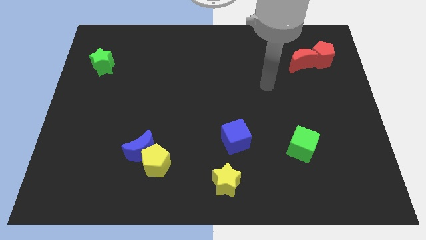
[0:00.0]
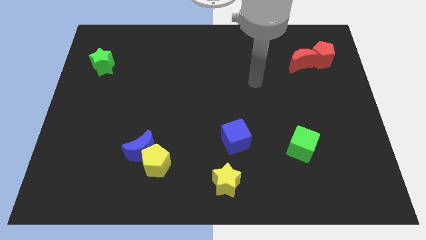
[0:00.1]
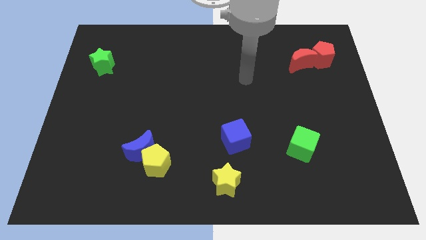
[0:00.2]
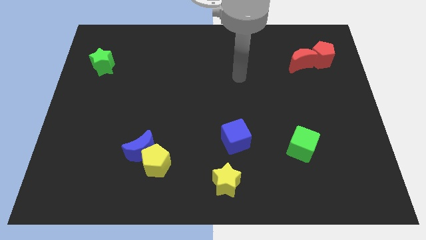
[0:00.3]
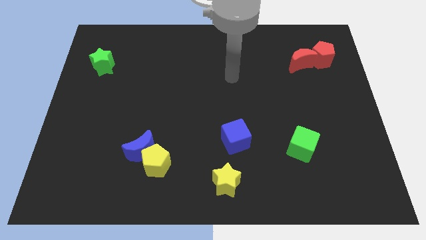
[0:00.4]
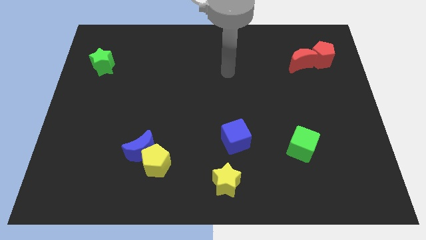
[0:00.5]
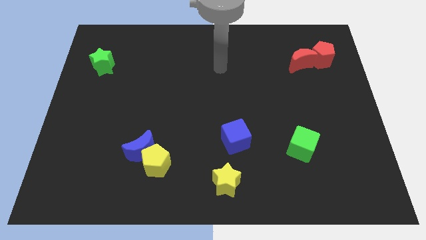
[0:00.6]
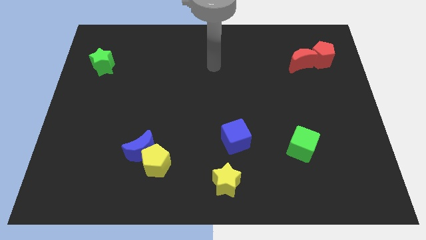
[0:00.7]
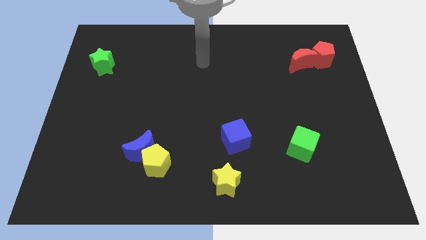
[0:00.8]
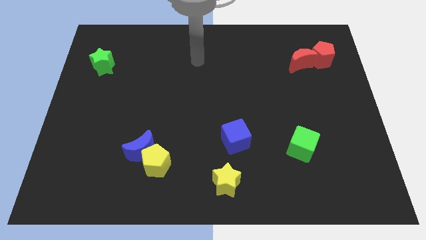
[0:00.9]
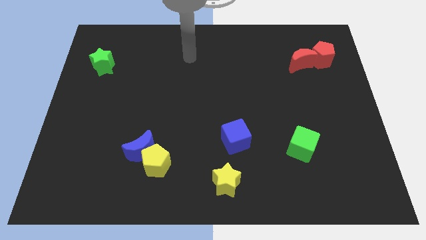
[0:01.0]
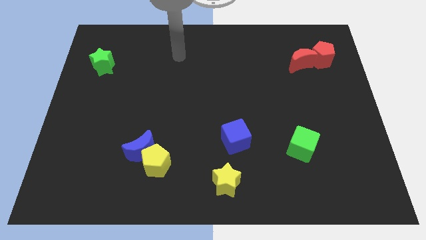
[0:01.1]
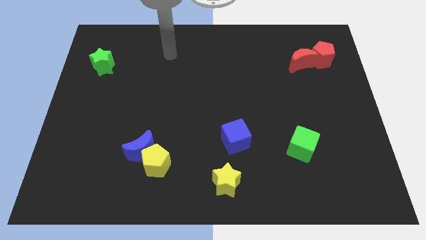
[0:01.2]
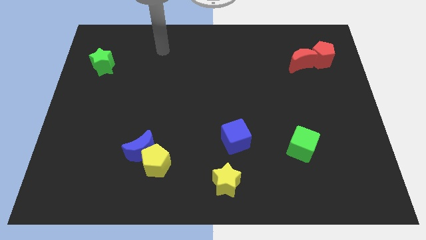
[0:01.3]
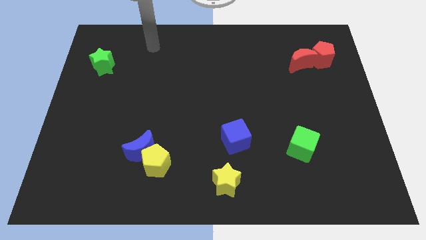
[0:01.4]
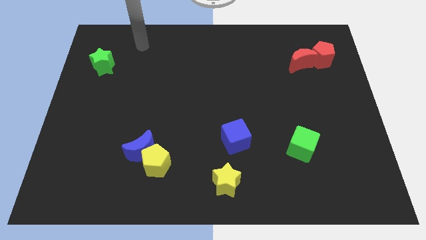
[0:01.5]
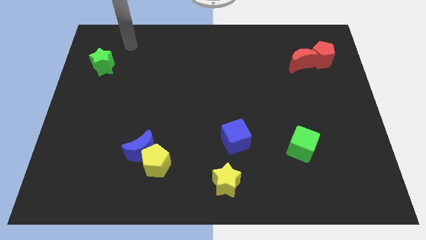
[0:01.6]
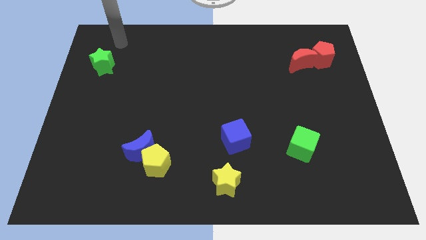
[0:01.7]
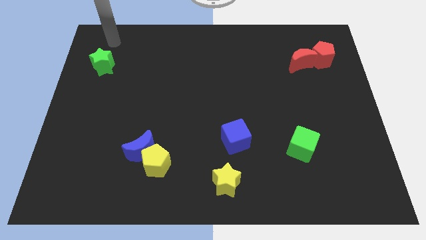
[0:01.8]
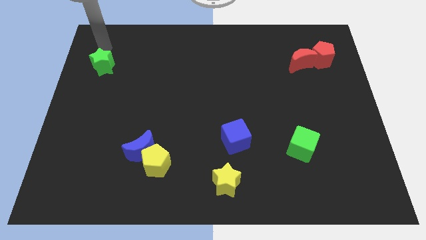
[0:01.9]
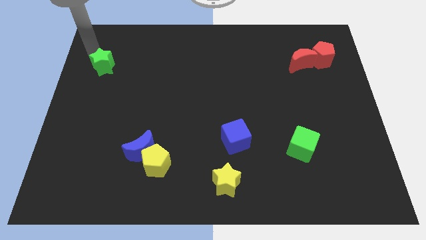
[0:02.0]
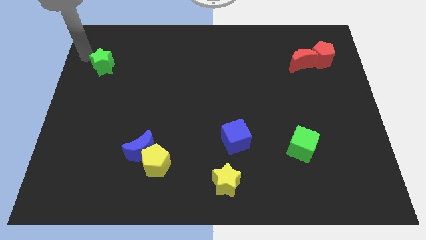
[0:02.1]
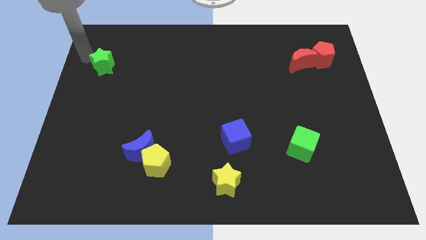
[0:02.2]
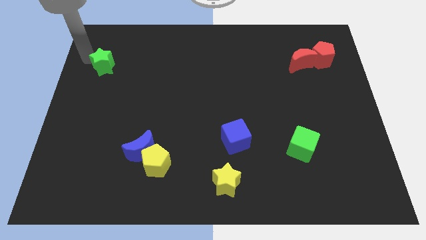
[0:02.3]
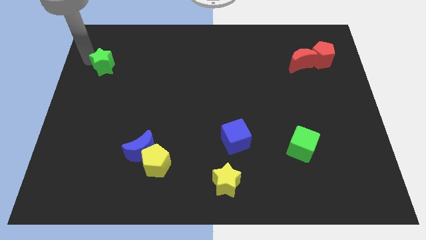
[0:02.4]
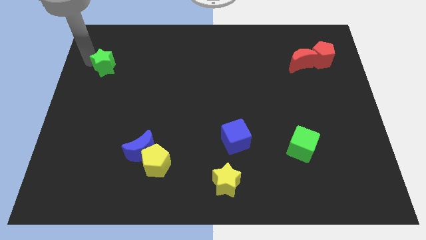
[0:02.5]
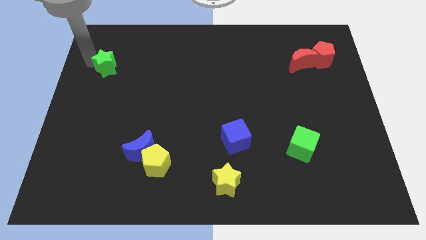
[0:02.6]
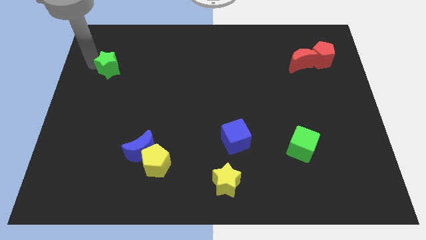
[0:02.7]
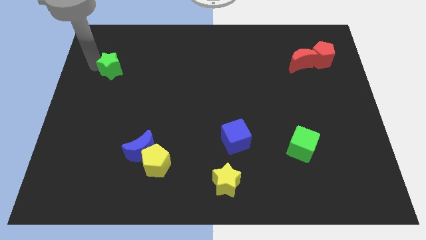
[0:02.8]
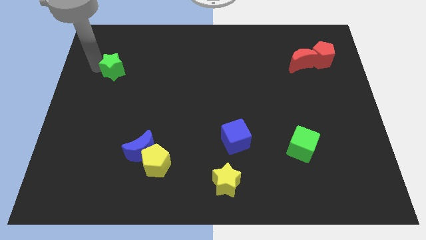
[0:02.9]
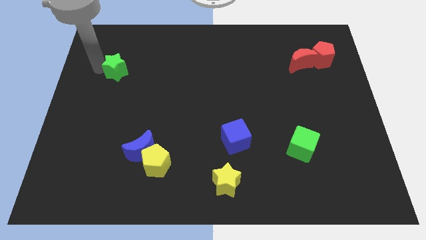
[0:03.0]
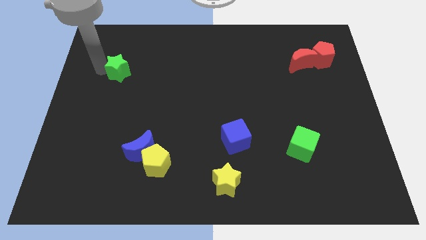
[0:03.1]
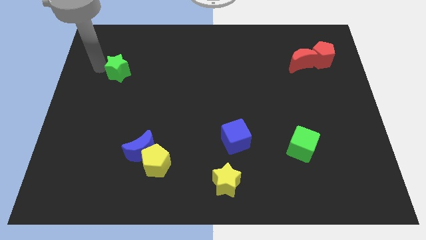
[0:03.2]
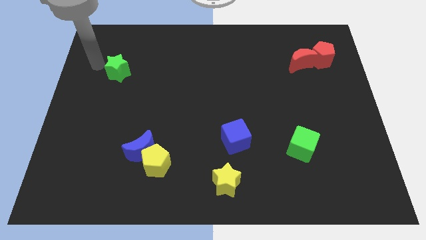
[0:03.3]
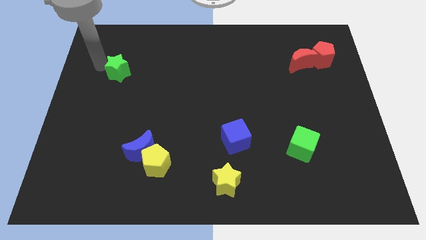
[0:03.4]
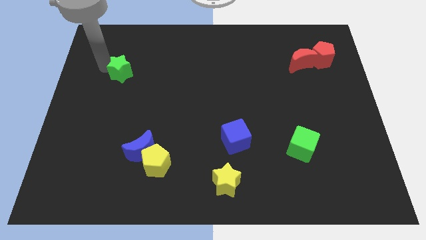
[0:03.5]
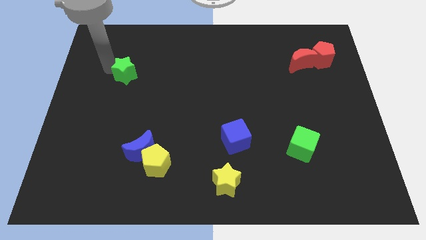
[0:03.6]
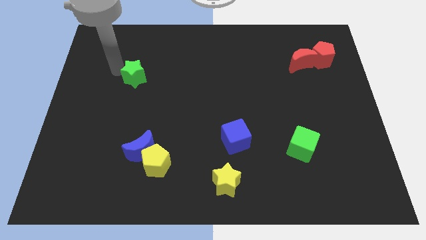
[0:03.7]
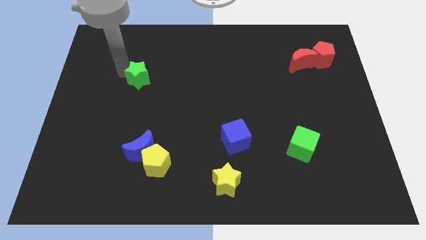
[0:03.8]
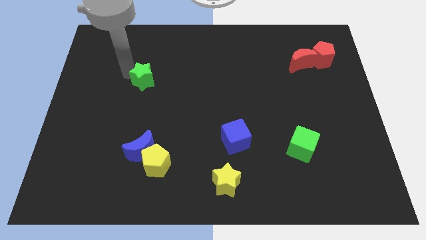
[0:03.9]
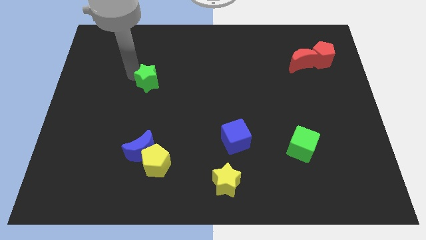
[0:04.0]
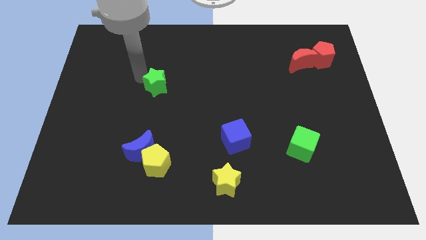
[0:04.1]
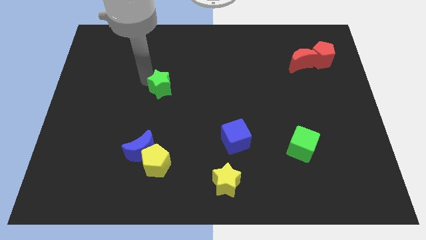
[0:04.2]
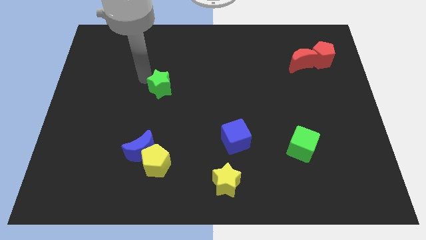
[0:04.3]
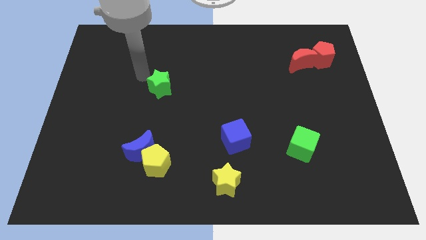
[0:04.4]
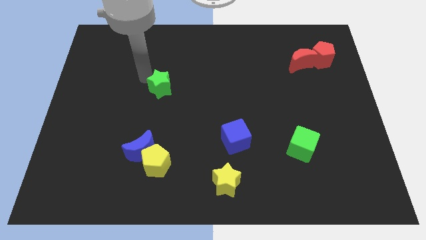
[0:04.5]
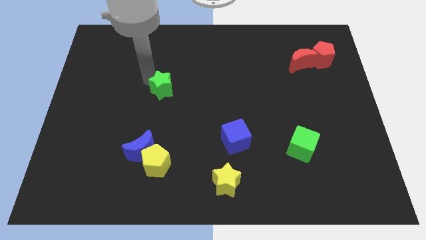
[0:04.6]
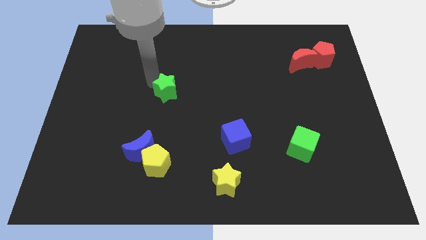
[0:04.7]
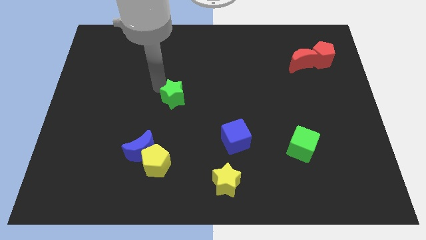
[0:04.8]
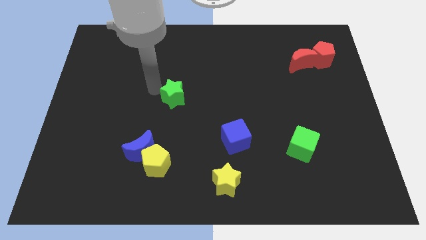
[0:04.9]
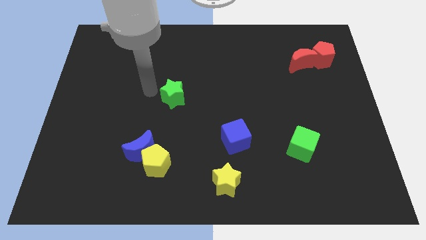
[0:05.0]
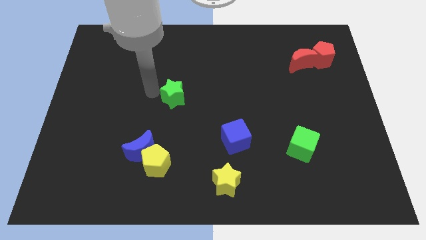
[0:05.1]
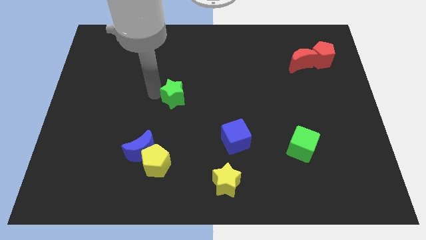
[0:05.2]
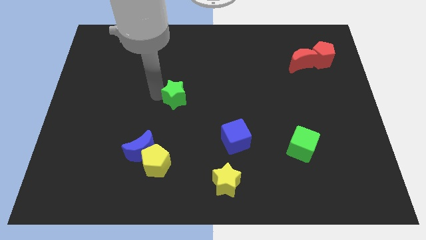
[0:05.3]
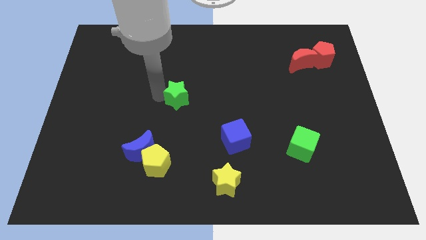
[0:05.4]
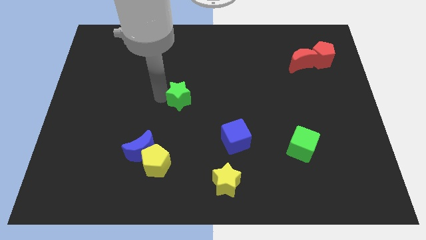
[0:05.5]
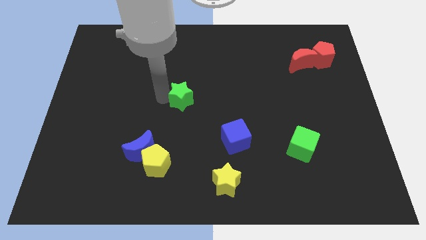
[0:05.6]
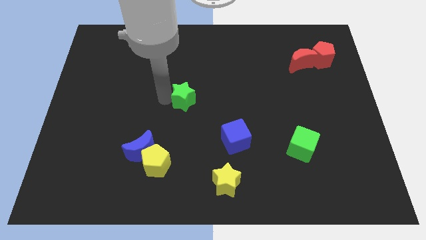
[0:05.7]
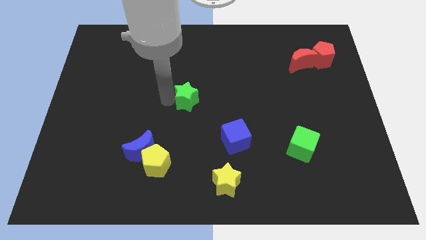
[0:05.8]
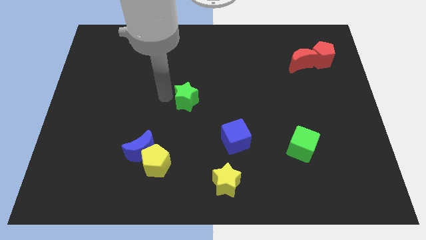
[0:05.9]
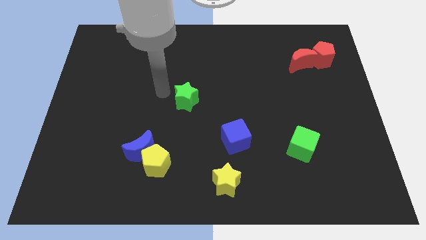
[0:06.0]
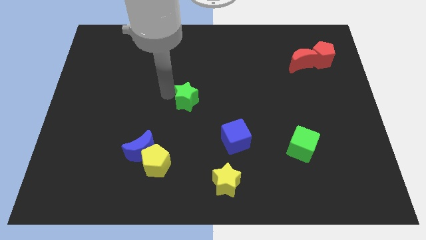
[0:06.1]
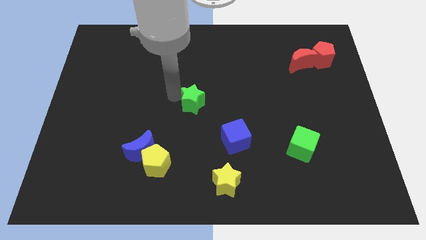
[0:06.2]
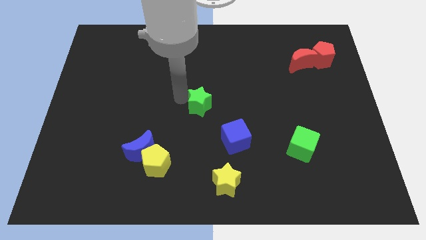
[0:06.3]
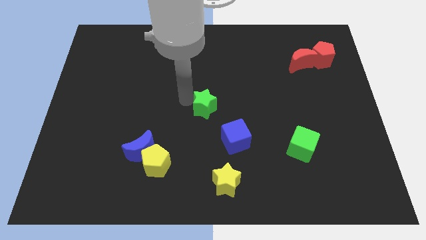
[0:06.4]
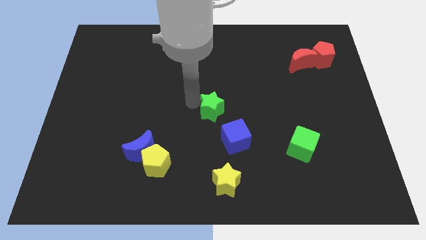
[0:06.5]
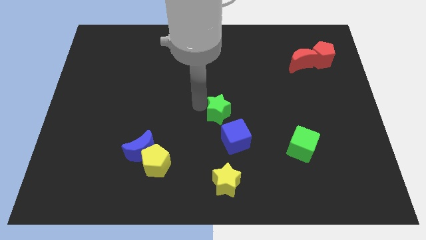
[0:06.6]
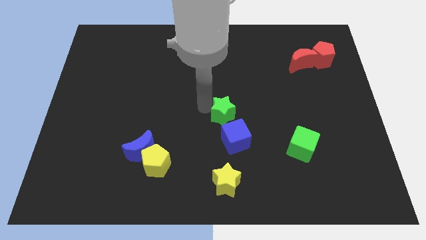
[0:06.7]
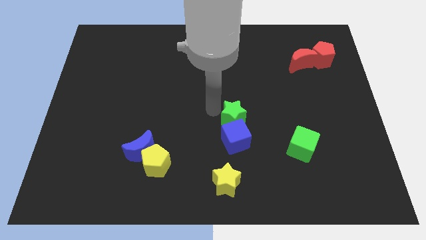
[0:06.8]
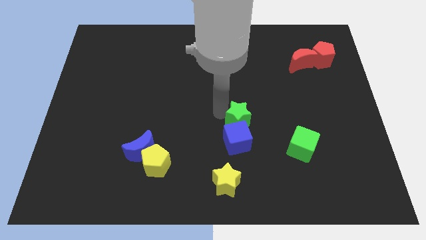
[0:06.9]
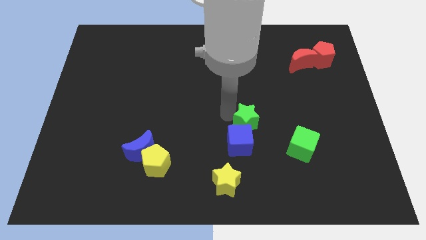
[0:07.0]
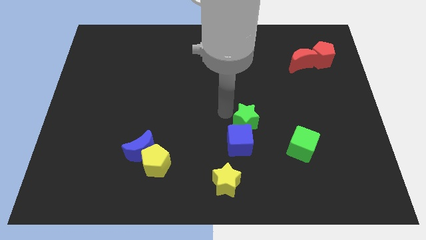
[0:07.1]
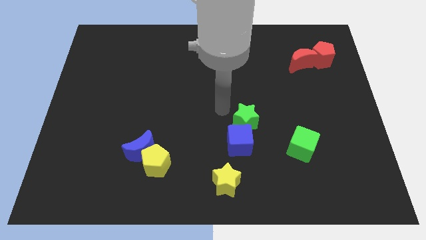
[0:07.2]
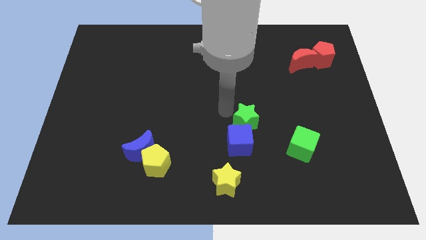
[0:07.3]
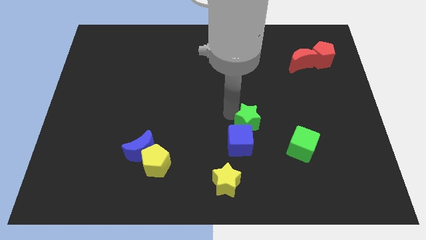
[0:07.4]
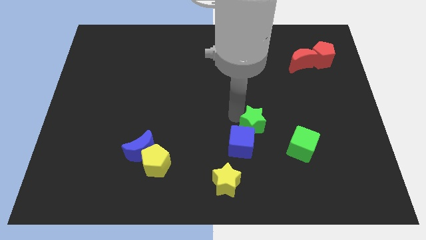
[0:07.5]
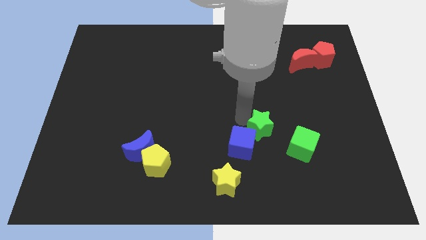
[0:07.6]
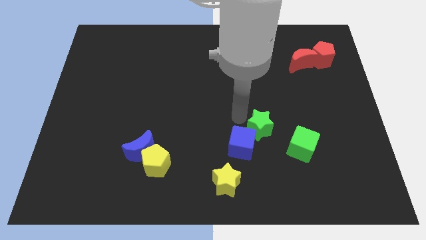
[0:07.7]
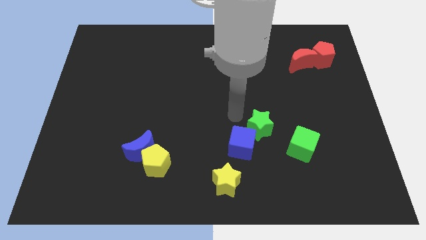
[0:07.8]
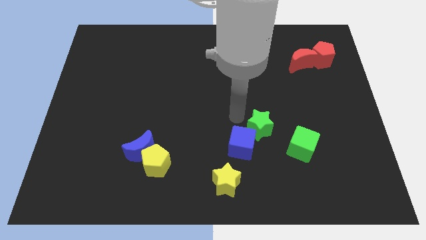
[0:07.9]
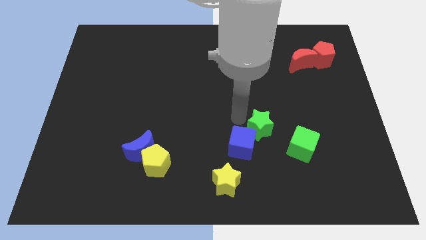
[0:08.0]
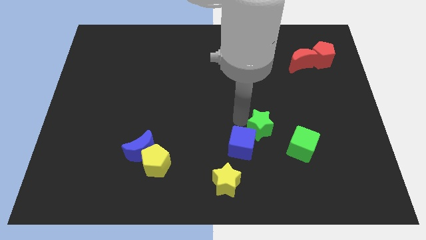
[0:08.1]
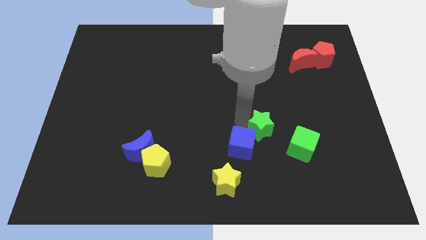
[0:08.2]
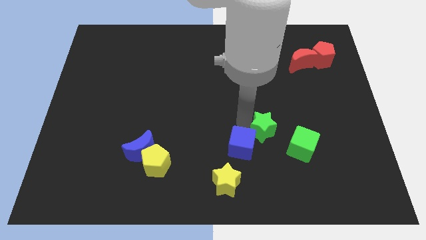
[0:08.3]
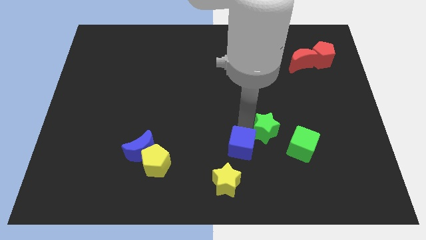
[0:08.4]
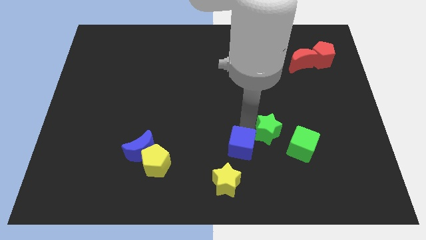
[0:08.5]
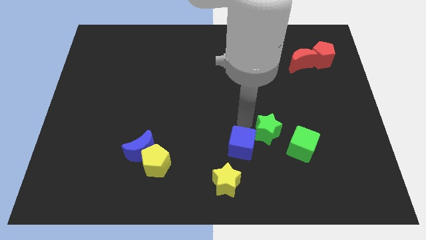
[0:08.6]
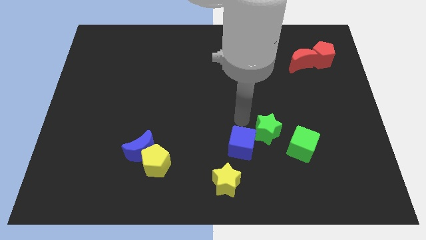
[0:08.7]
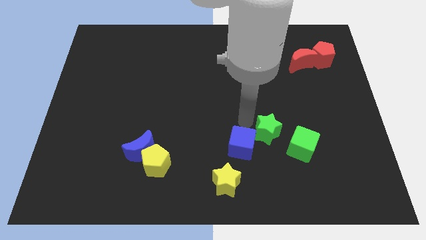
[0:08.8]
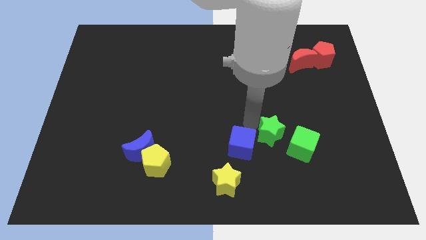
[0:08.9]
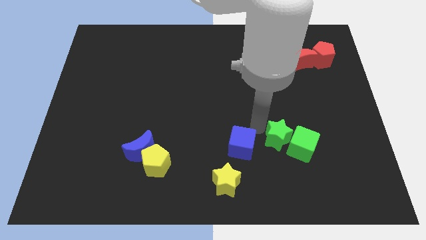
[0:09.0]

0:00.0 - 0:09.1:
move the green star to the green cube
